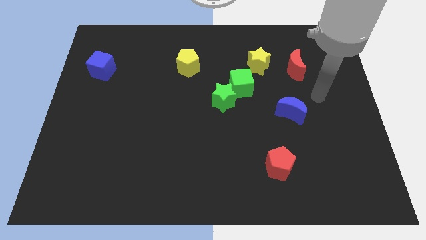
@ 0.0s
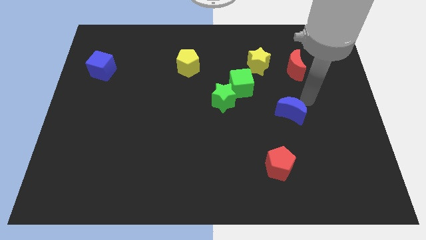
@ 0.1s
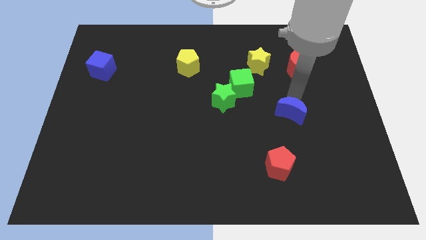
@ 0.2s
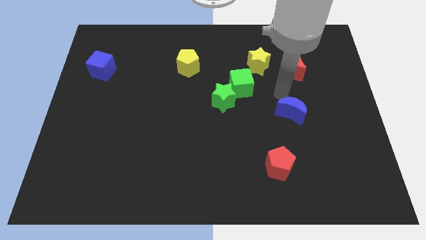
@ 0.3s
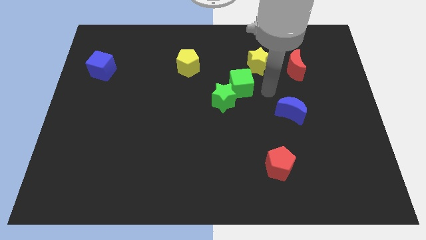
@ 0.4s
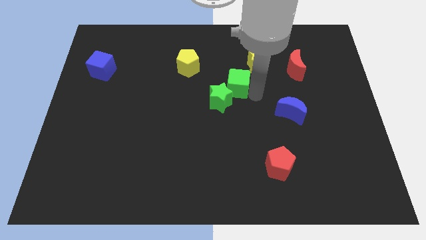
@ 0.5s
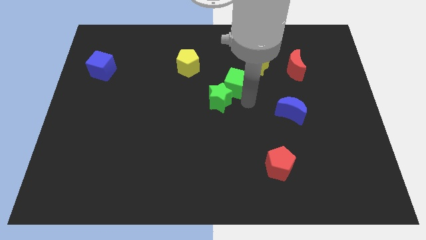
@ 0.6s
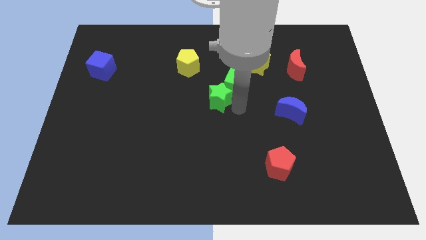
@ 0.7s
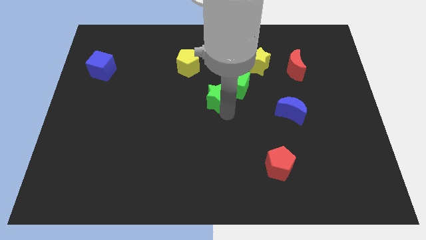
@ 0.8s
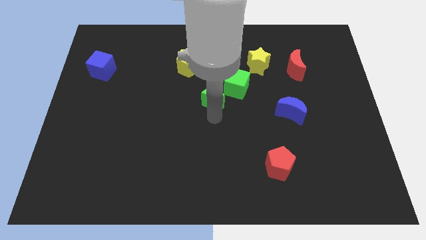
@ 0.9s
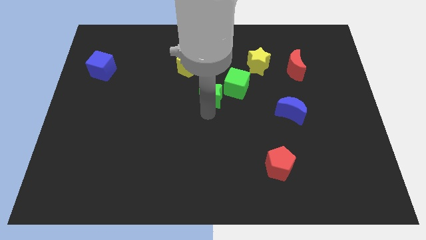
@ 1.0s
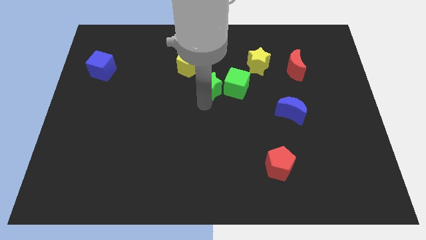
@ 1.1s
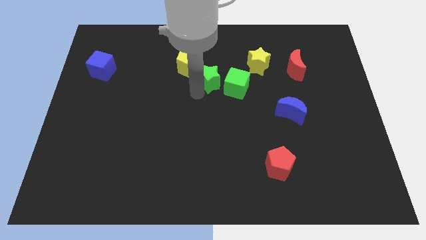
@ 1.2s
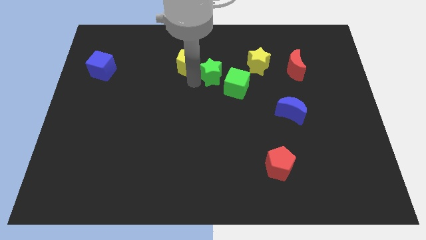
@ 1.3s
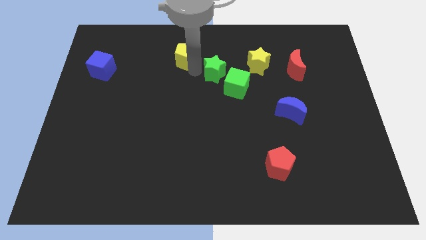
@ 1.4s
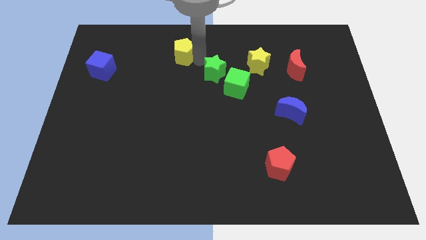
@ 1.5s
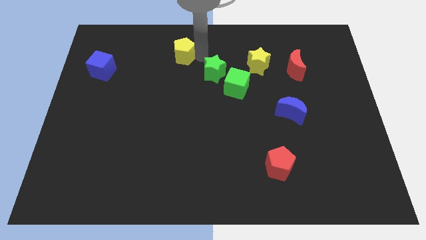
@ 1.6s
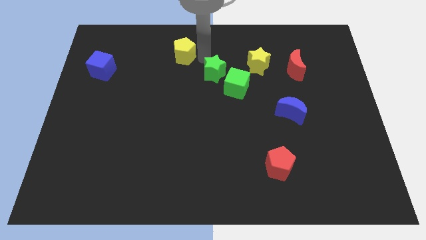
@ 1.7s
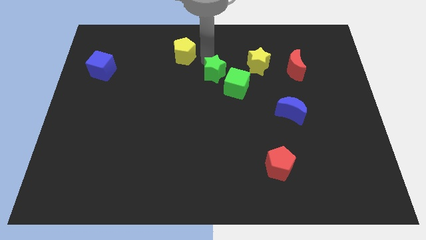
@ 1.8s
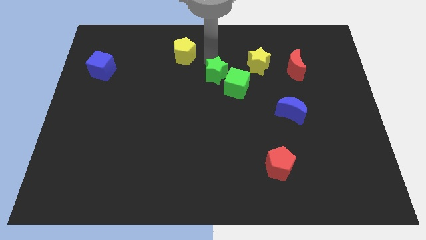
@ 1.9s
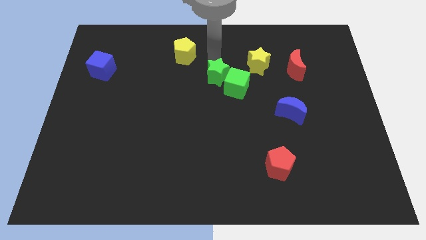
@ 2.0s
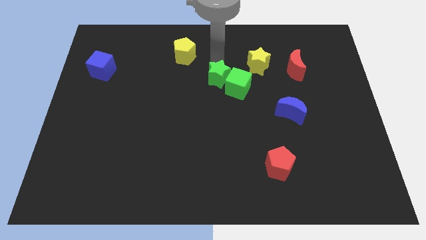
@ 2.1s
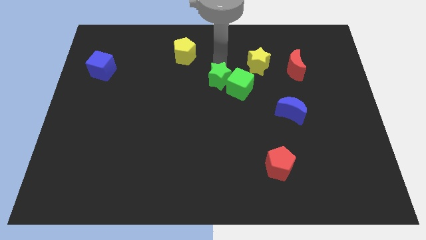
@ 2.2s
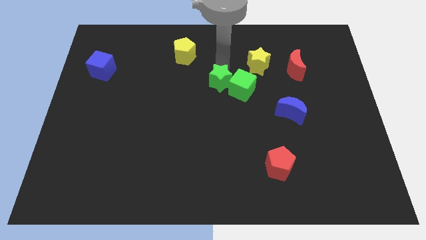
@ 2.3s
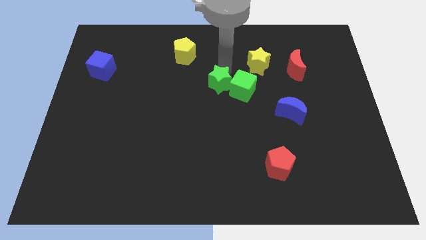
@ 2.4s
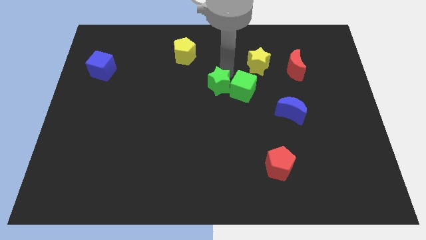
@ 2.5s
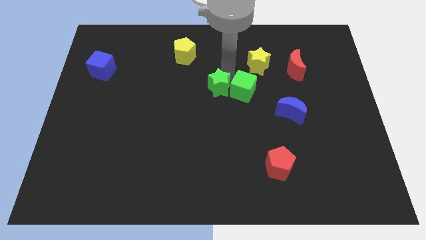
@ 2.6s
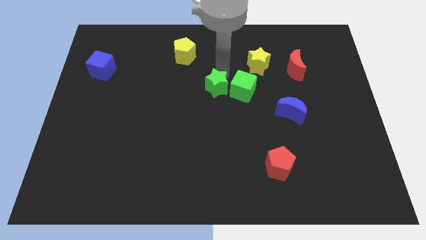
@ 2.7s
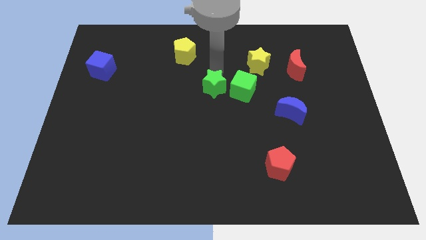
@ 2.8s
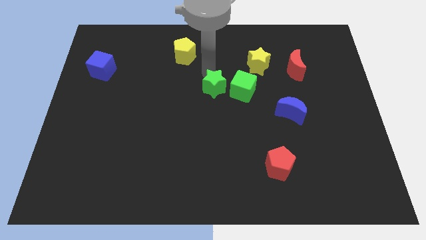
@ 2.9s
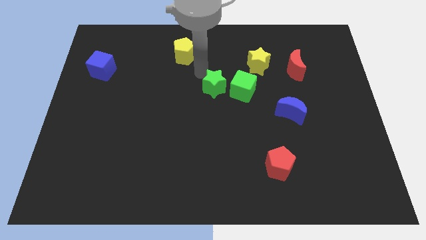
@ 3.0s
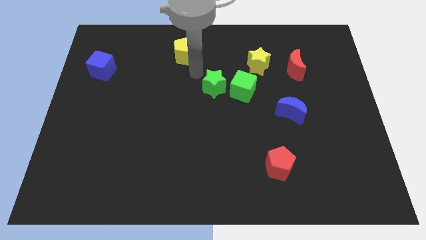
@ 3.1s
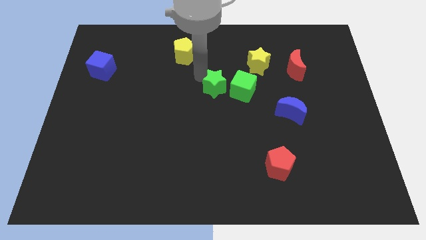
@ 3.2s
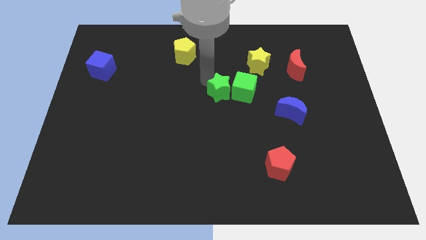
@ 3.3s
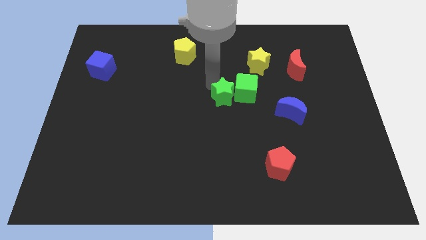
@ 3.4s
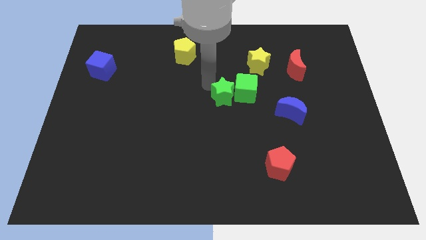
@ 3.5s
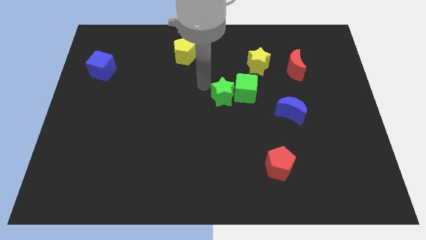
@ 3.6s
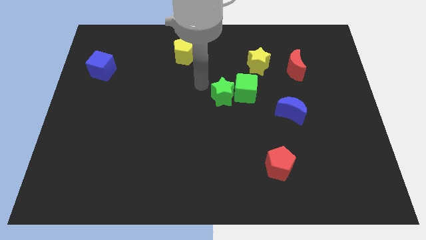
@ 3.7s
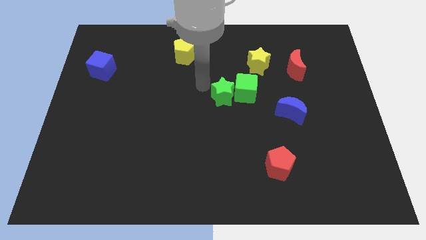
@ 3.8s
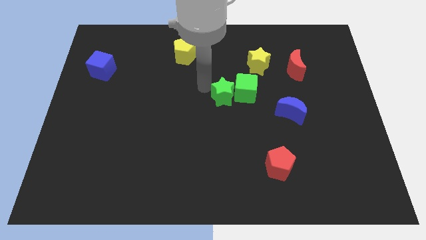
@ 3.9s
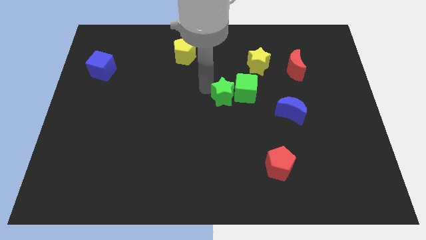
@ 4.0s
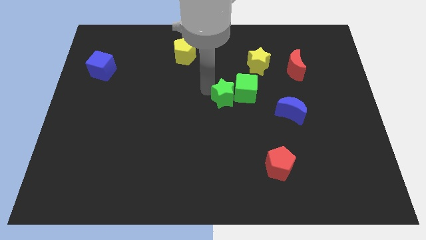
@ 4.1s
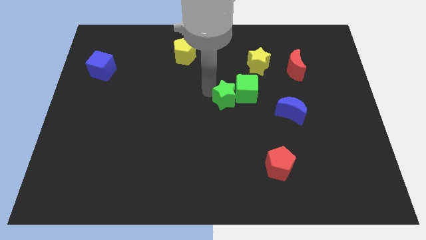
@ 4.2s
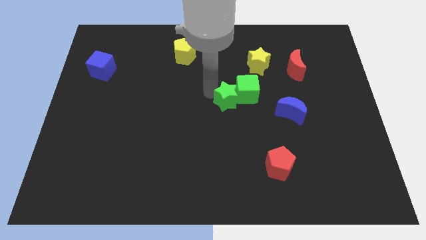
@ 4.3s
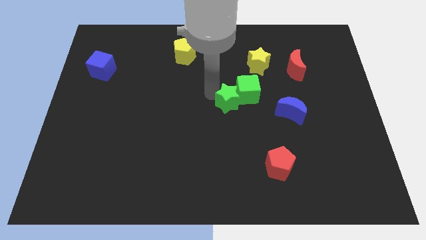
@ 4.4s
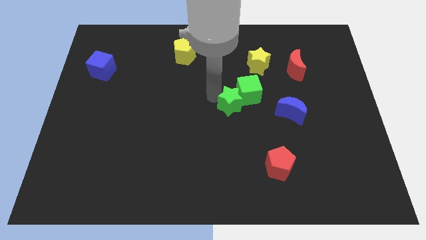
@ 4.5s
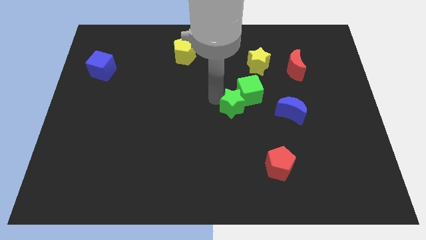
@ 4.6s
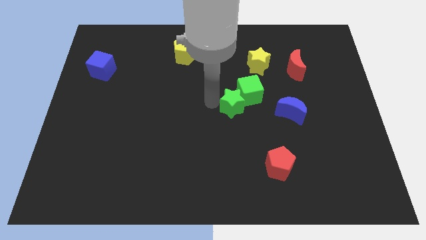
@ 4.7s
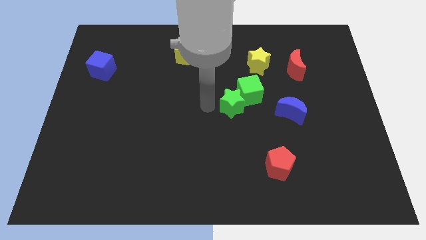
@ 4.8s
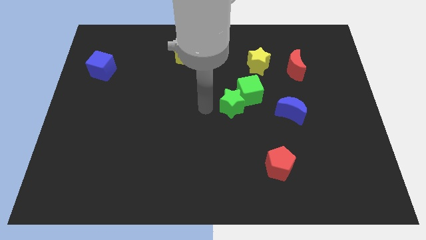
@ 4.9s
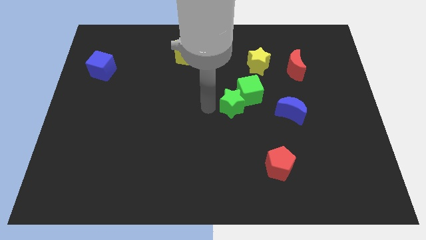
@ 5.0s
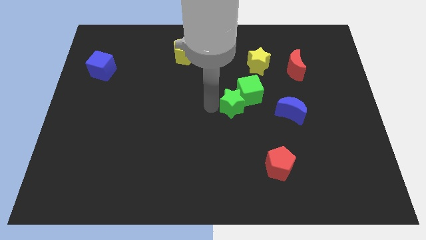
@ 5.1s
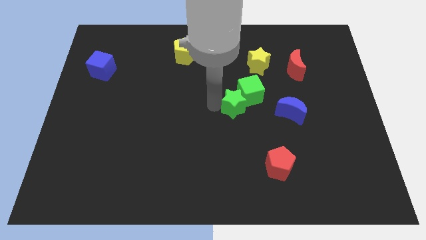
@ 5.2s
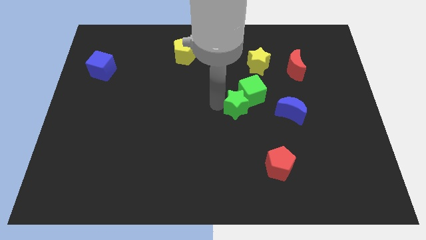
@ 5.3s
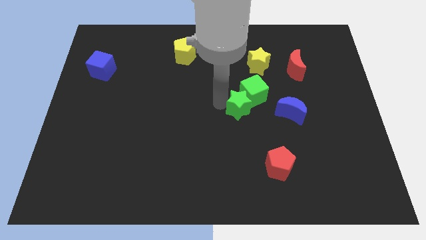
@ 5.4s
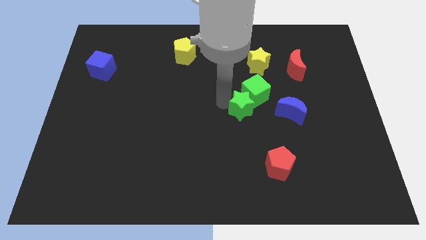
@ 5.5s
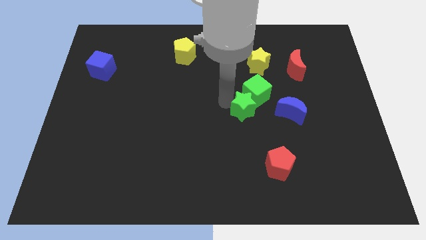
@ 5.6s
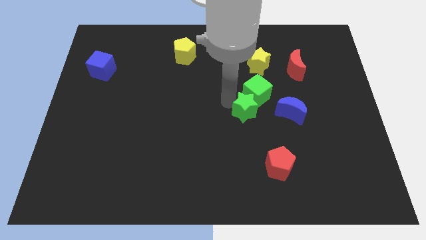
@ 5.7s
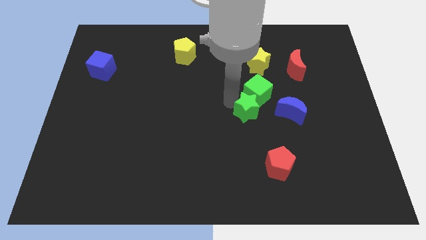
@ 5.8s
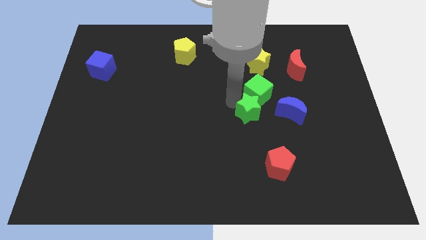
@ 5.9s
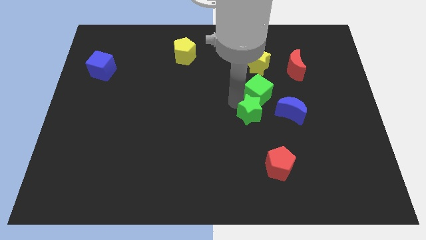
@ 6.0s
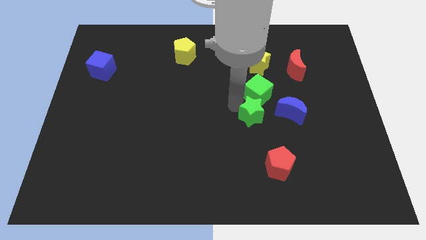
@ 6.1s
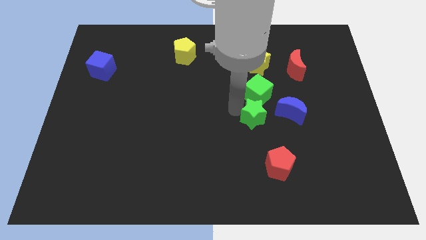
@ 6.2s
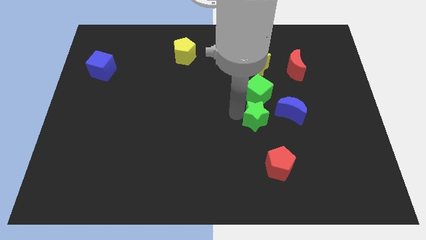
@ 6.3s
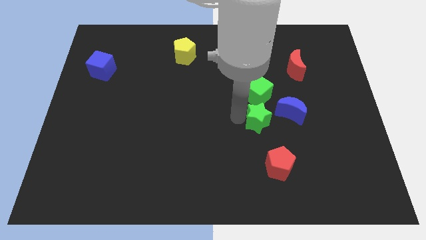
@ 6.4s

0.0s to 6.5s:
slightly slide the green star to the right

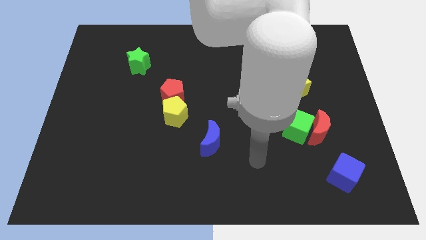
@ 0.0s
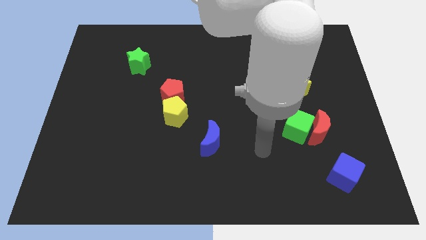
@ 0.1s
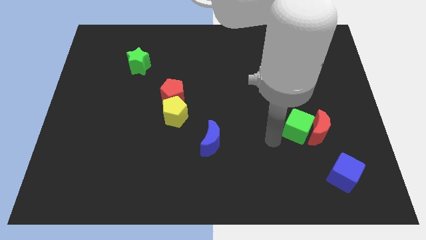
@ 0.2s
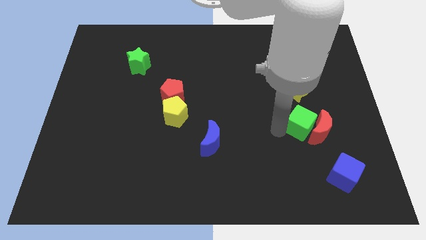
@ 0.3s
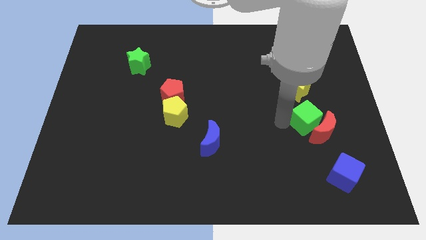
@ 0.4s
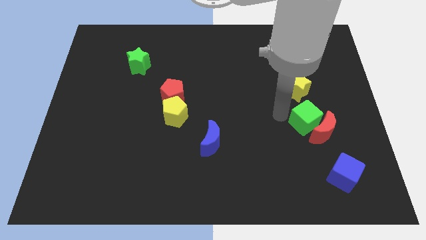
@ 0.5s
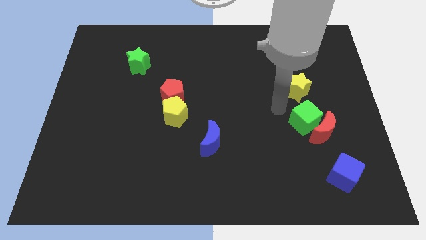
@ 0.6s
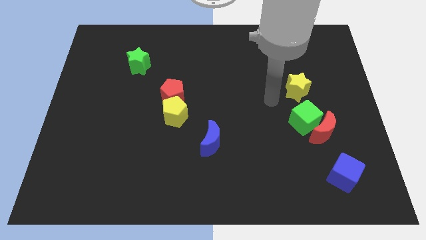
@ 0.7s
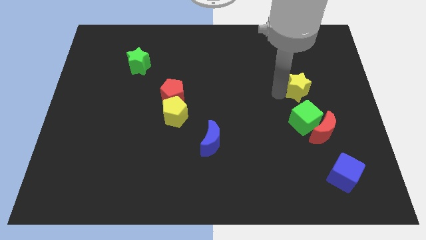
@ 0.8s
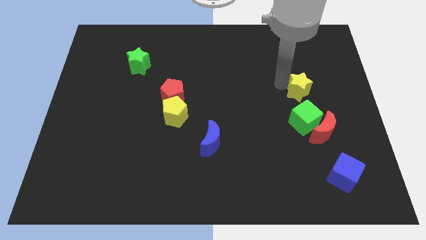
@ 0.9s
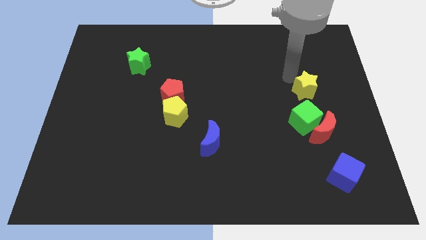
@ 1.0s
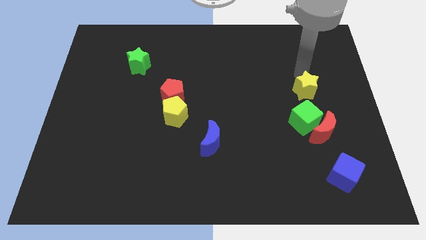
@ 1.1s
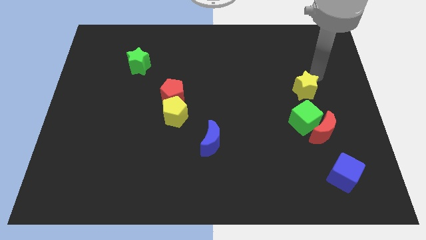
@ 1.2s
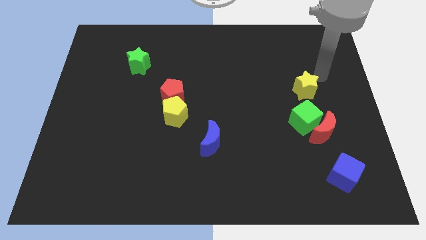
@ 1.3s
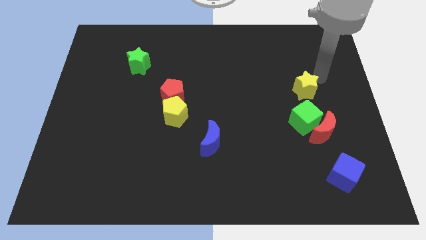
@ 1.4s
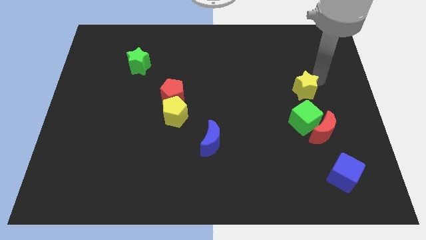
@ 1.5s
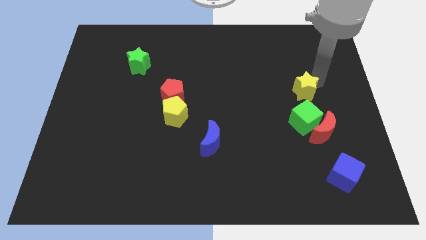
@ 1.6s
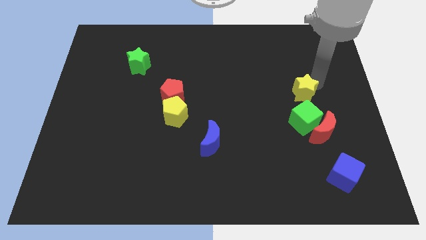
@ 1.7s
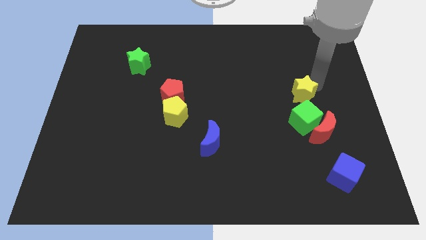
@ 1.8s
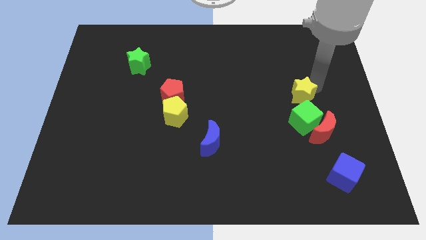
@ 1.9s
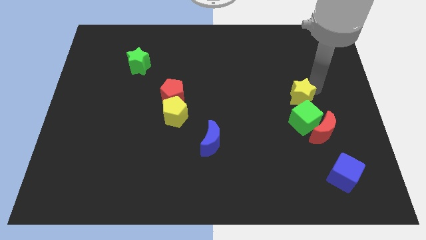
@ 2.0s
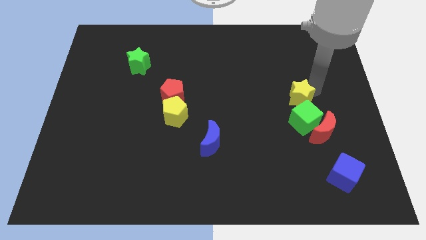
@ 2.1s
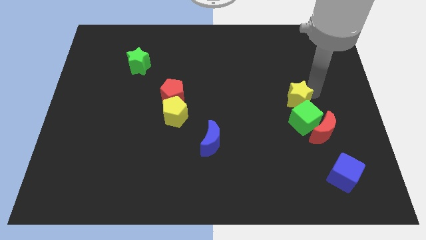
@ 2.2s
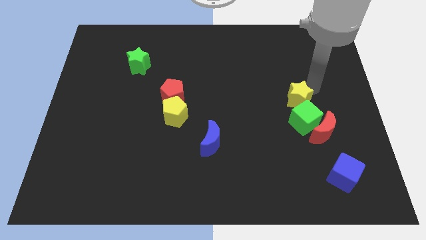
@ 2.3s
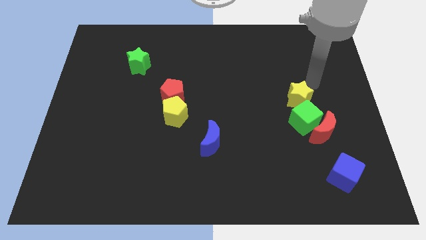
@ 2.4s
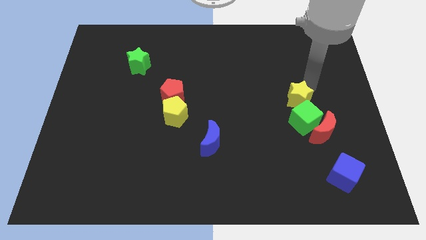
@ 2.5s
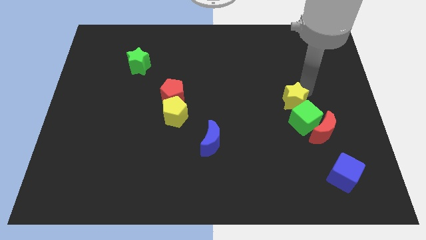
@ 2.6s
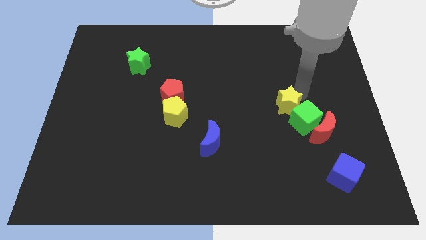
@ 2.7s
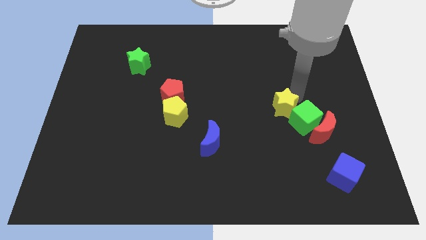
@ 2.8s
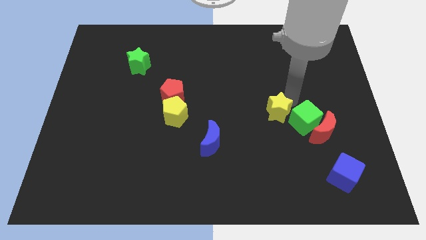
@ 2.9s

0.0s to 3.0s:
move the yellow star a little downwards and then to the left
